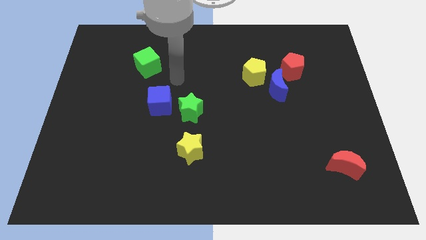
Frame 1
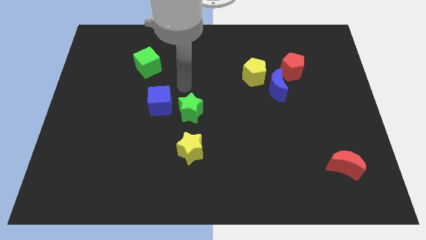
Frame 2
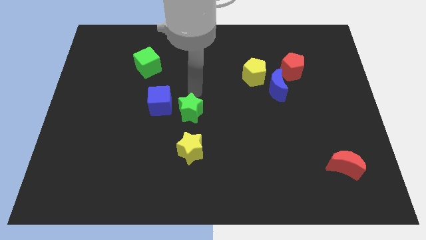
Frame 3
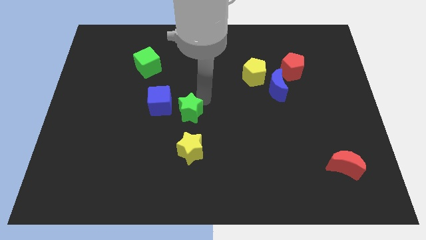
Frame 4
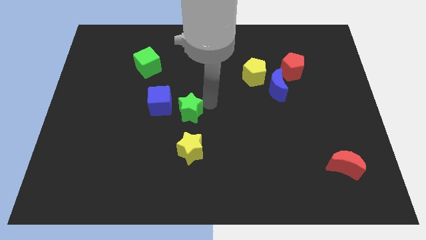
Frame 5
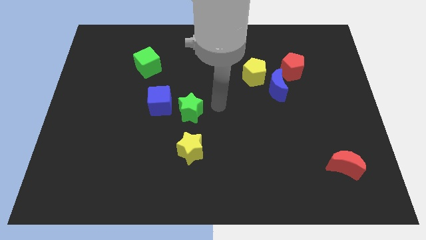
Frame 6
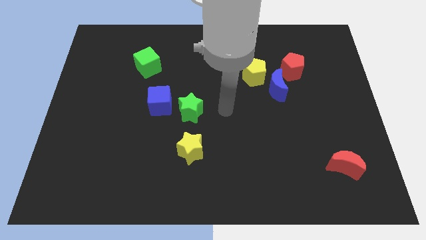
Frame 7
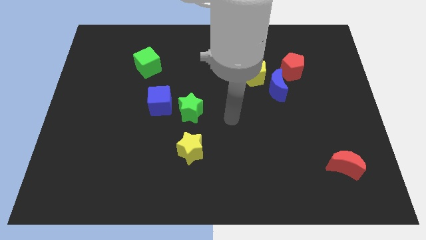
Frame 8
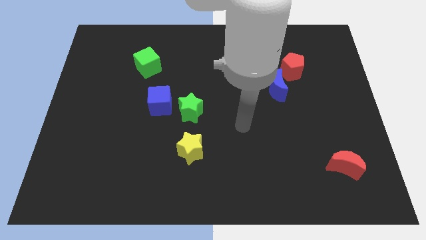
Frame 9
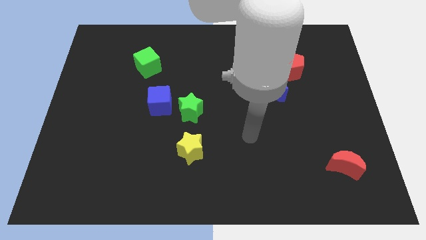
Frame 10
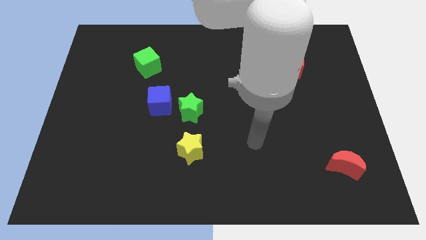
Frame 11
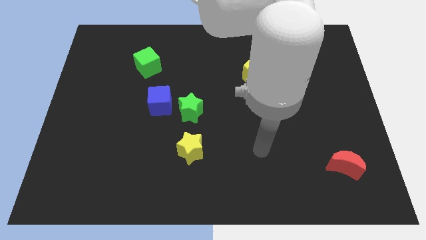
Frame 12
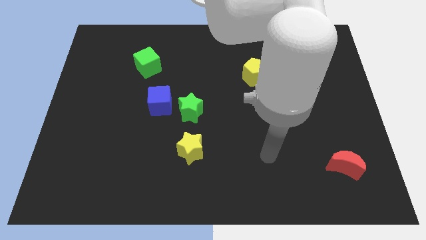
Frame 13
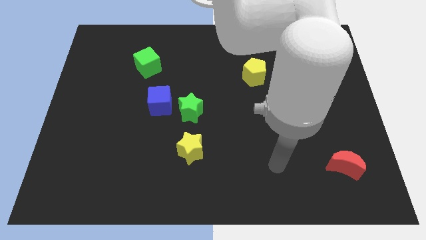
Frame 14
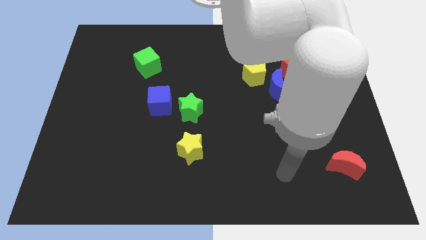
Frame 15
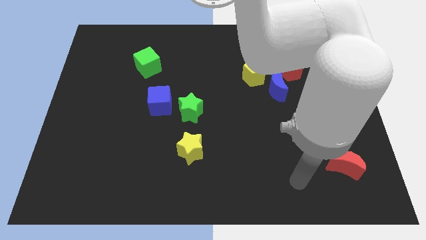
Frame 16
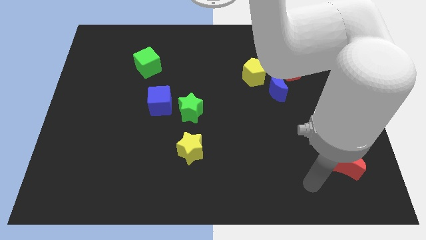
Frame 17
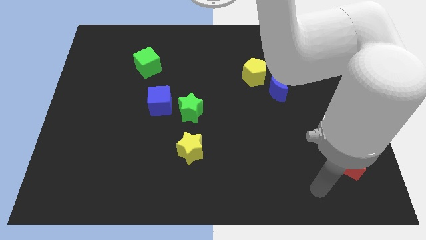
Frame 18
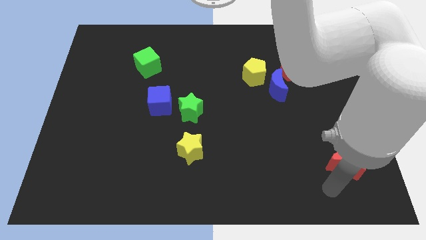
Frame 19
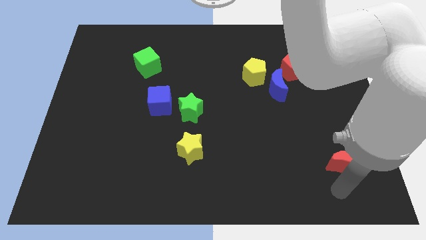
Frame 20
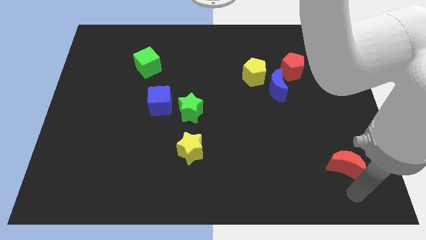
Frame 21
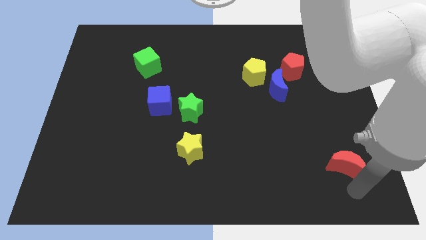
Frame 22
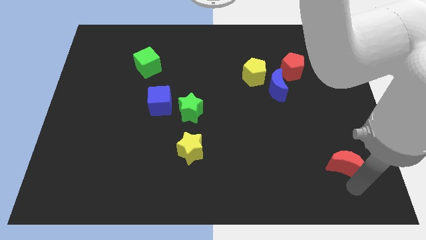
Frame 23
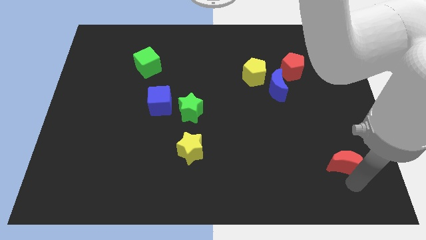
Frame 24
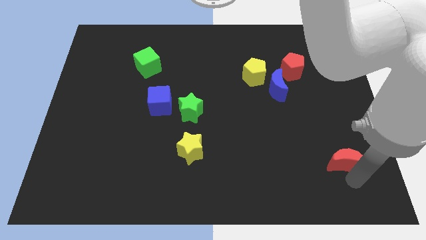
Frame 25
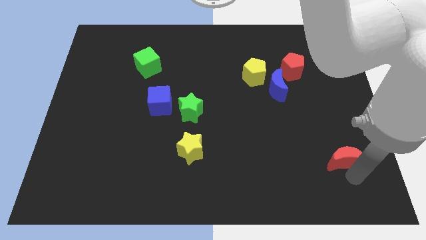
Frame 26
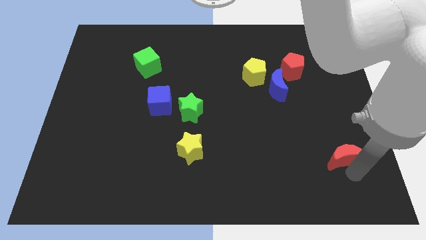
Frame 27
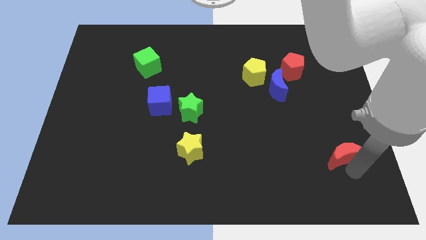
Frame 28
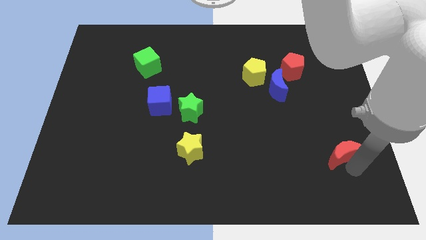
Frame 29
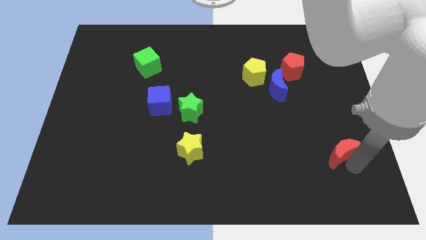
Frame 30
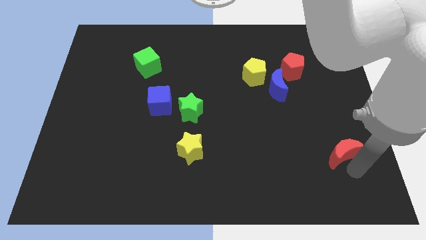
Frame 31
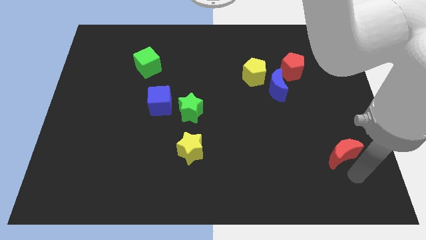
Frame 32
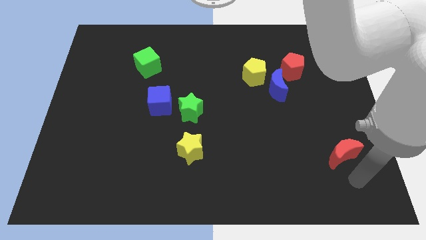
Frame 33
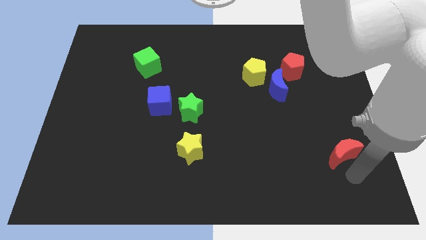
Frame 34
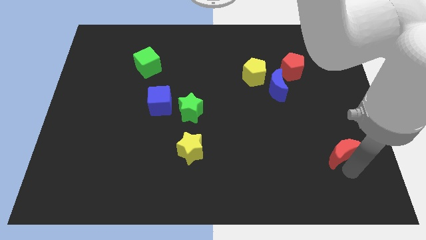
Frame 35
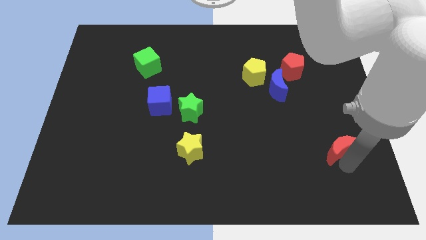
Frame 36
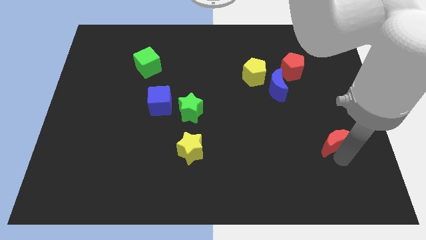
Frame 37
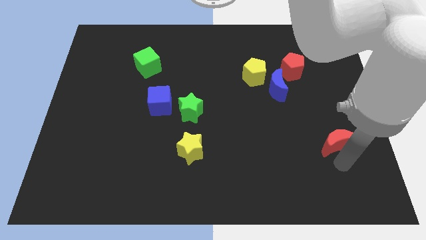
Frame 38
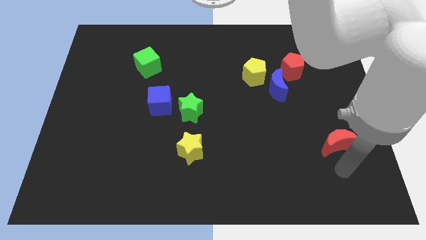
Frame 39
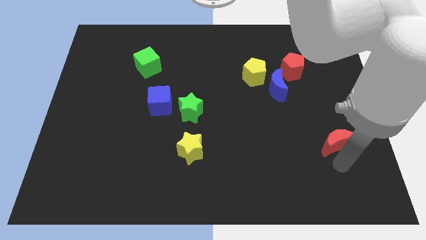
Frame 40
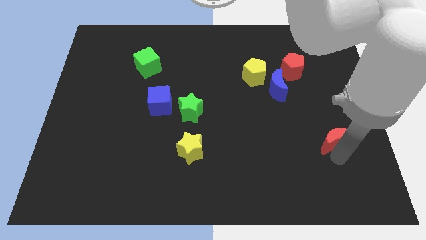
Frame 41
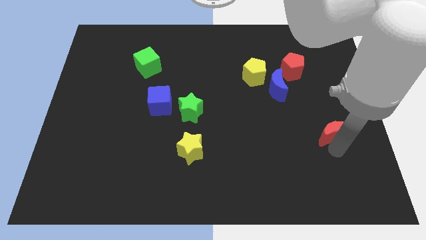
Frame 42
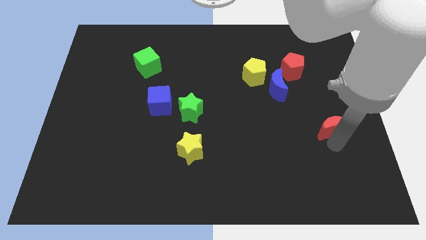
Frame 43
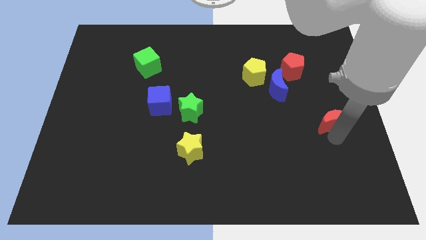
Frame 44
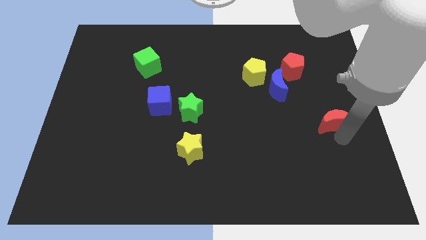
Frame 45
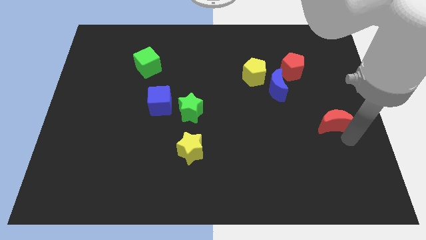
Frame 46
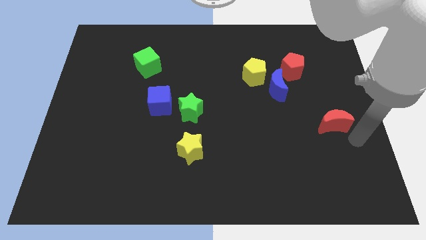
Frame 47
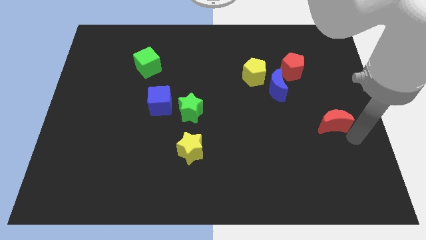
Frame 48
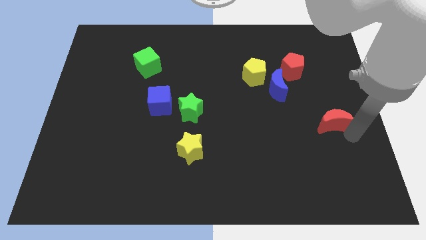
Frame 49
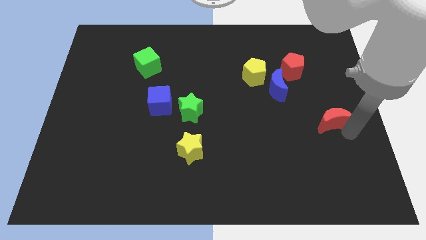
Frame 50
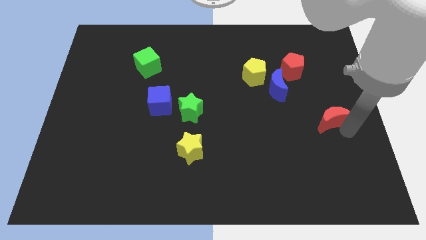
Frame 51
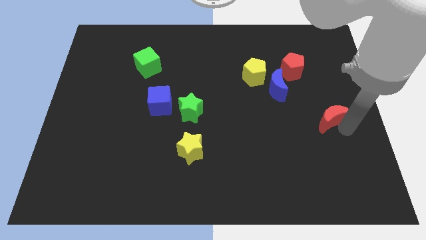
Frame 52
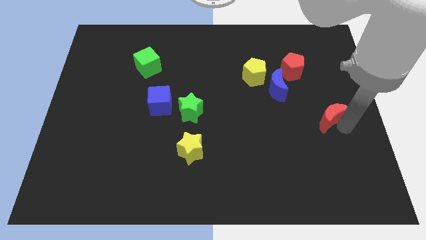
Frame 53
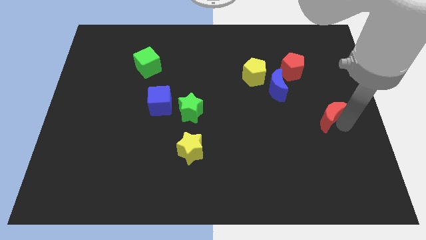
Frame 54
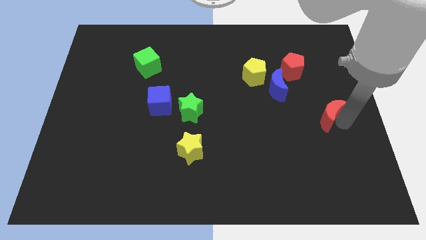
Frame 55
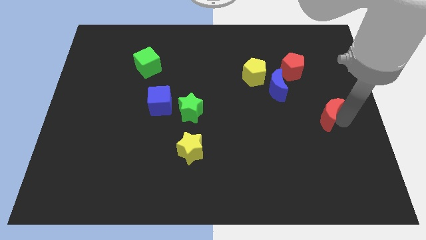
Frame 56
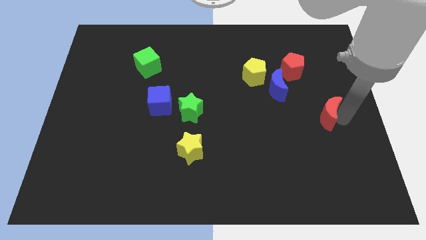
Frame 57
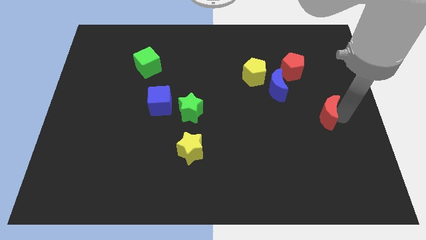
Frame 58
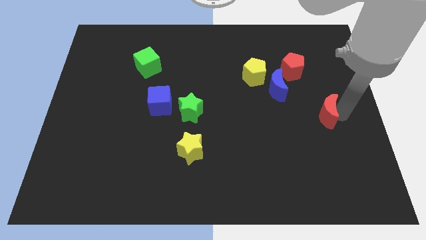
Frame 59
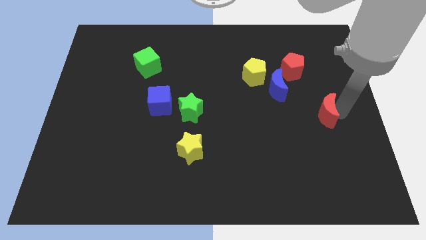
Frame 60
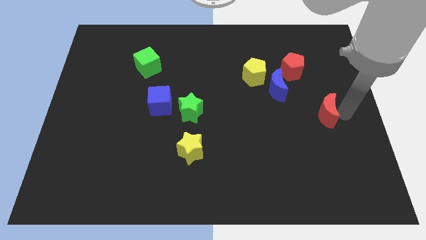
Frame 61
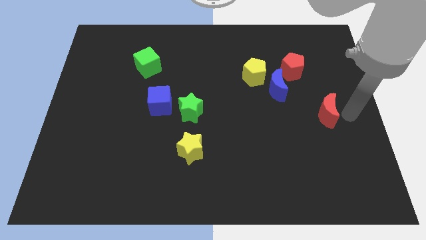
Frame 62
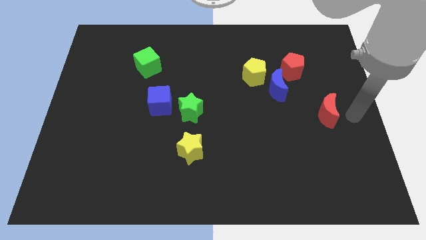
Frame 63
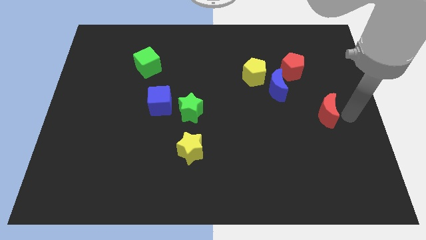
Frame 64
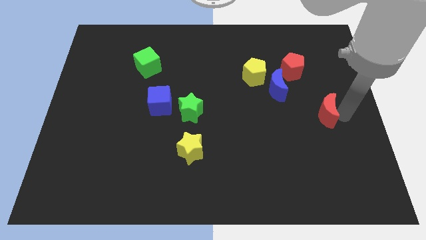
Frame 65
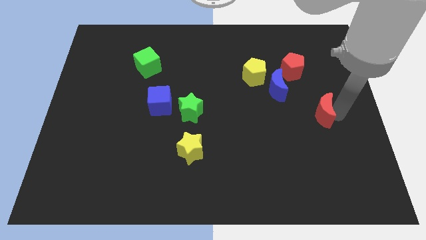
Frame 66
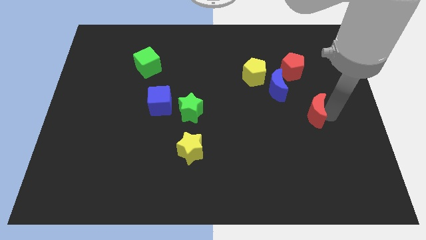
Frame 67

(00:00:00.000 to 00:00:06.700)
slide the red moon to the bottom of the red pentagon
